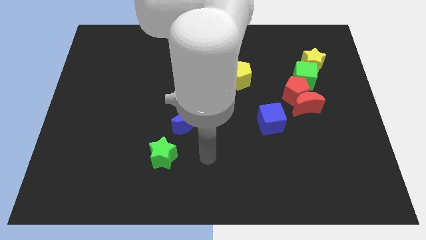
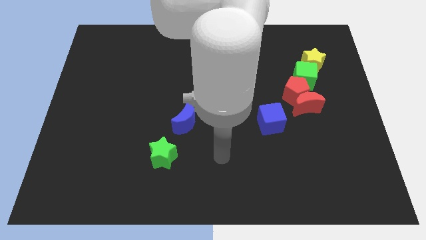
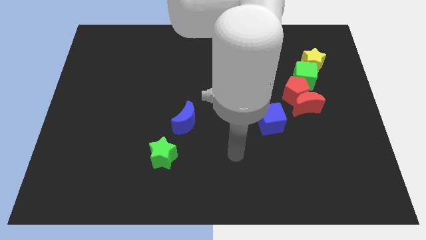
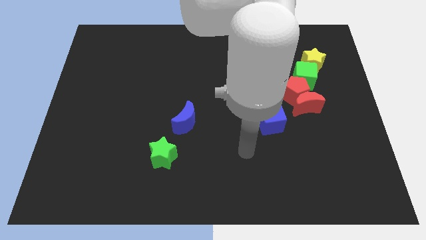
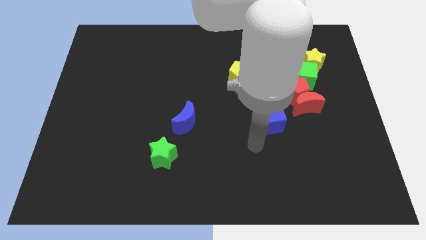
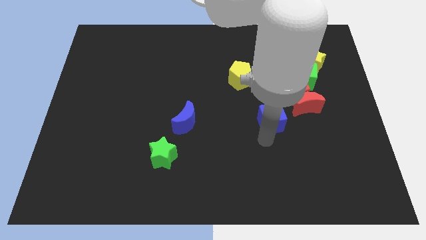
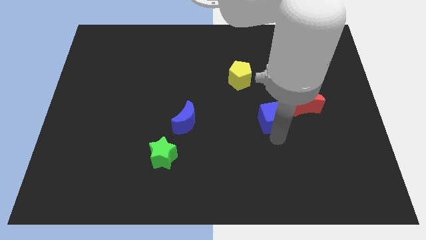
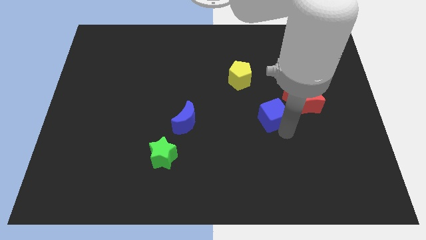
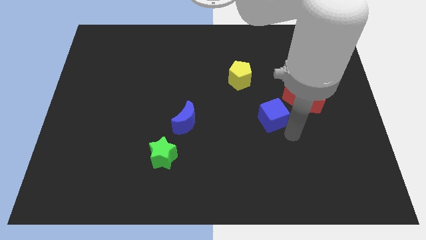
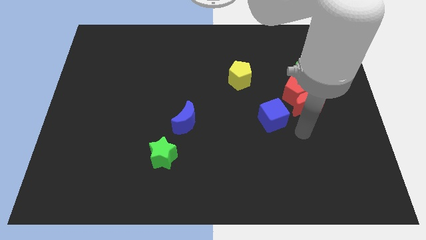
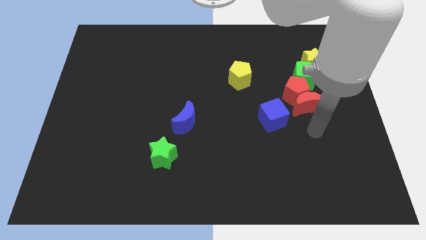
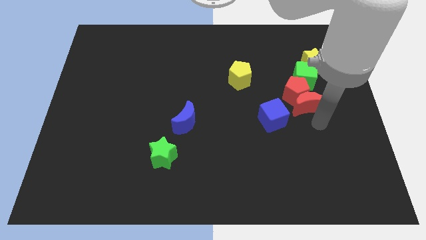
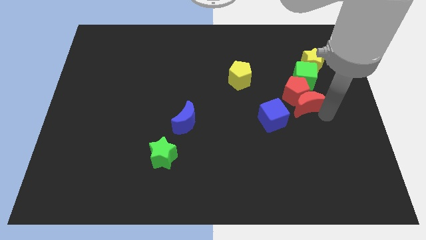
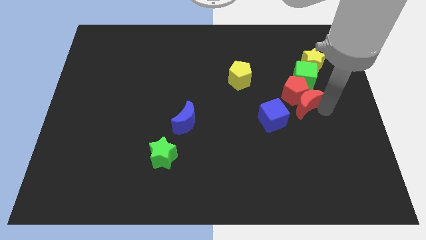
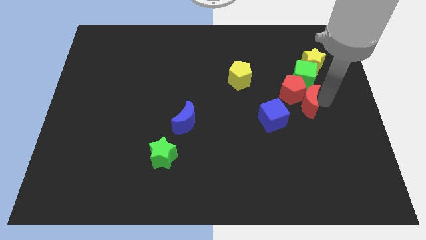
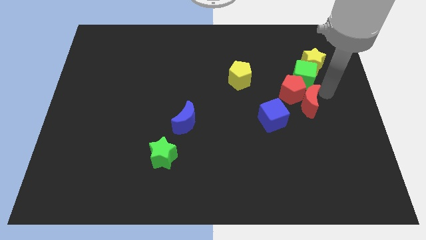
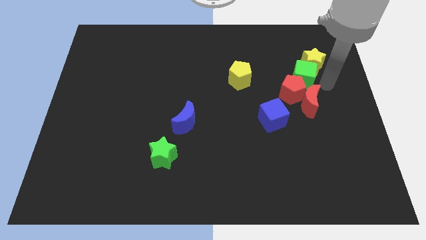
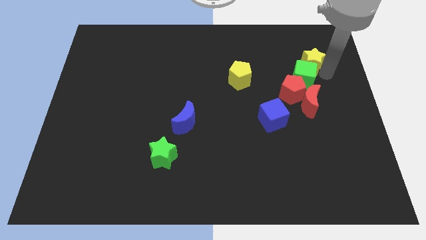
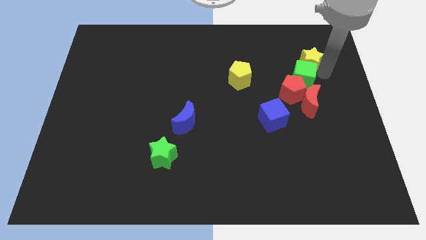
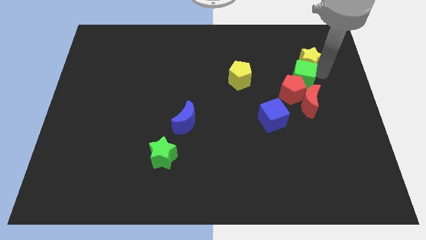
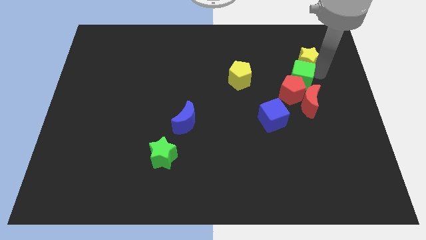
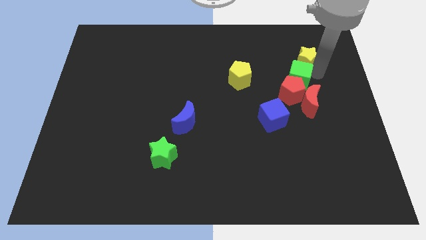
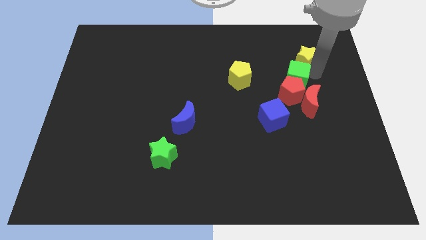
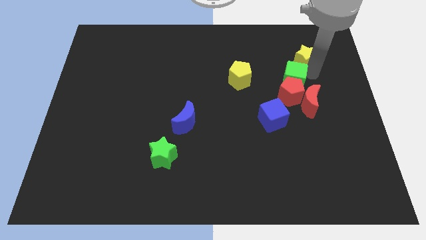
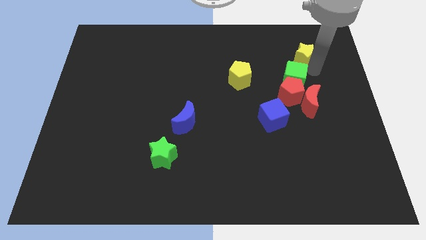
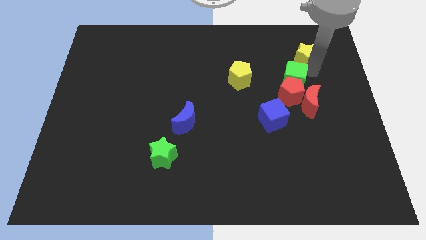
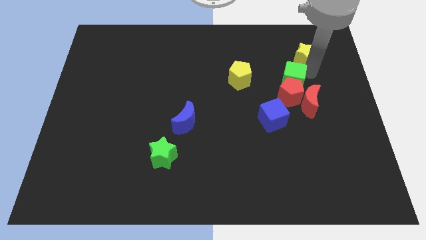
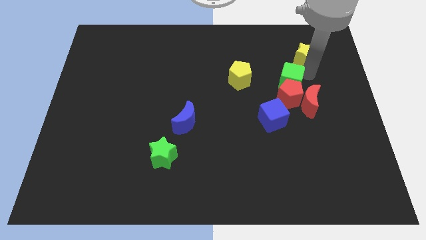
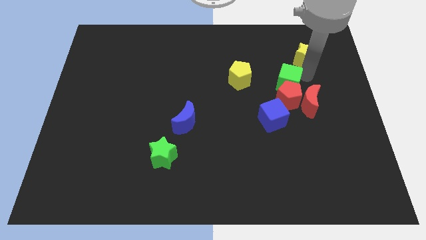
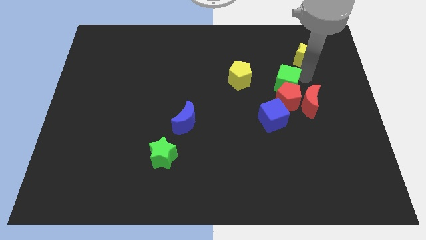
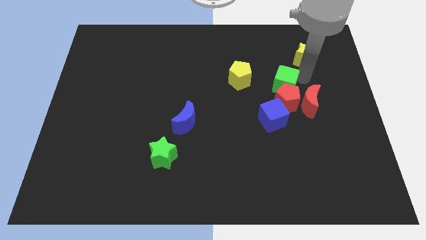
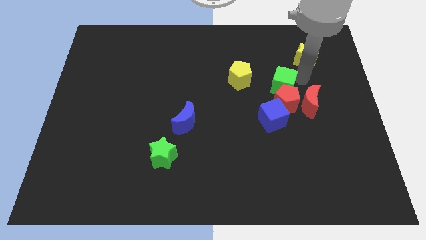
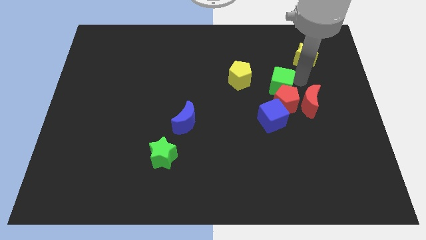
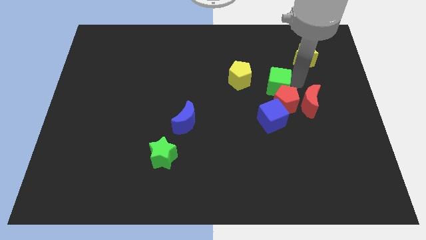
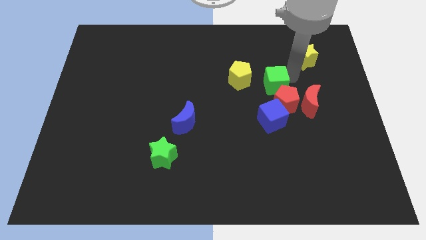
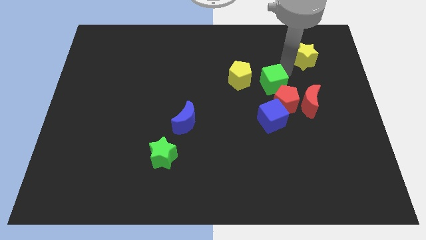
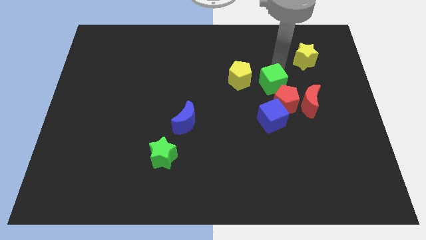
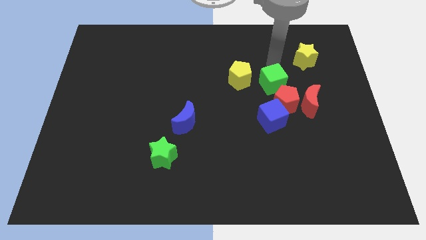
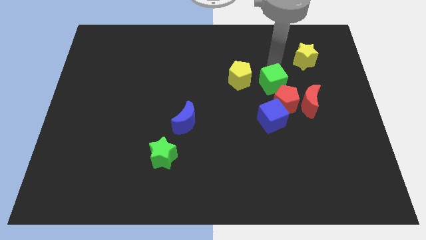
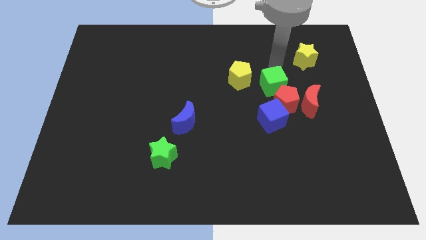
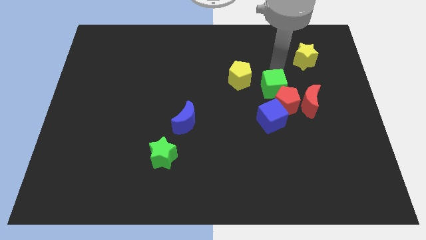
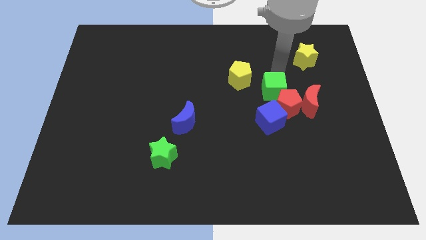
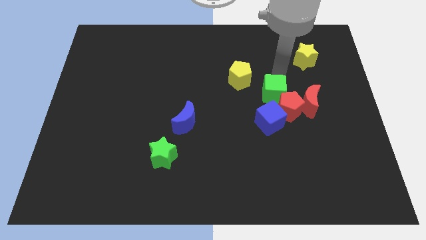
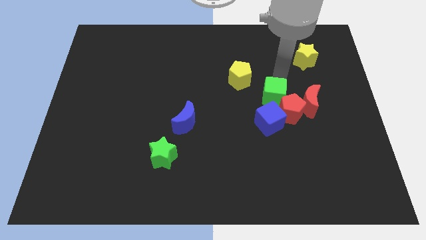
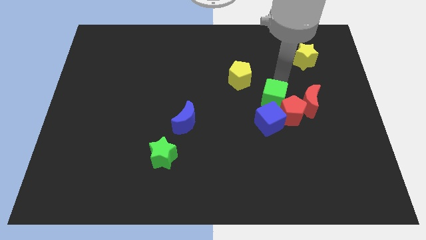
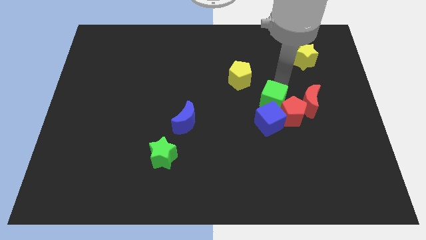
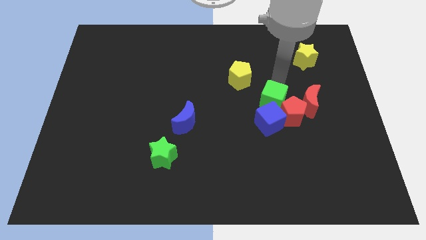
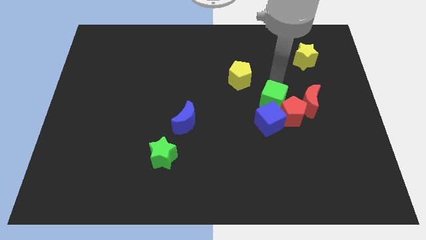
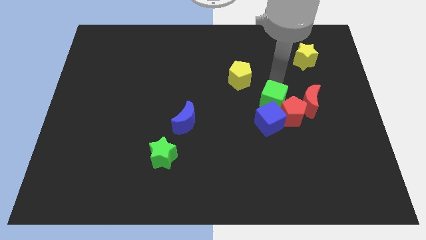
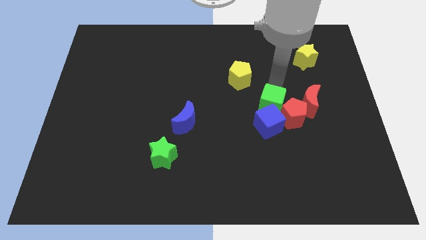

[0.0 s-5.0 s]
push the green cube close to the blue cube

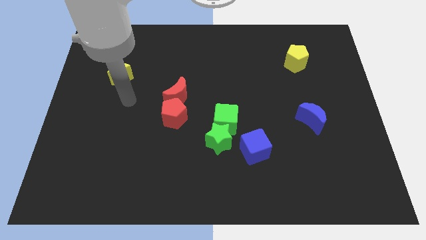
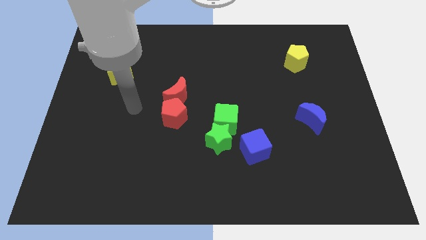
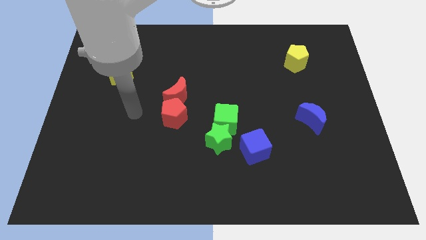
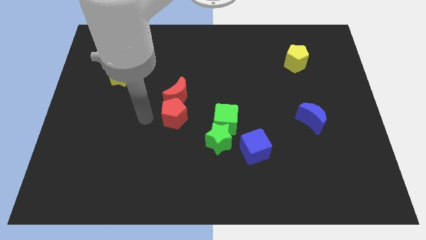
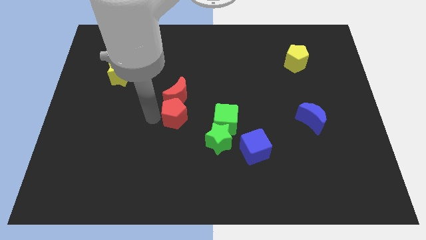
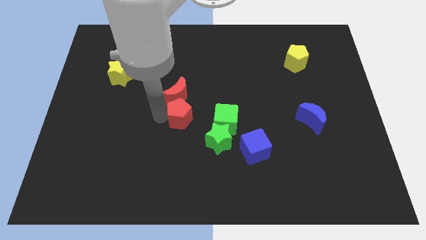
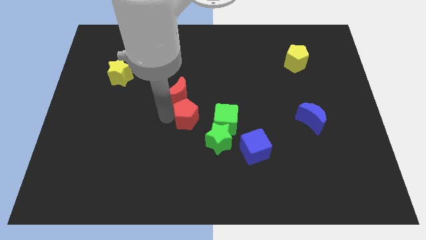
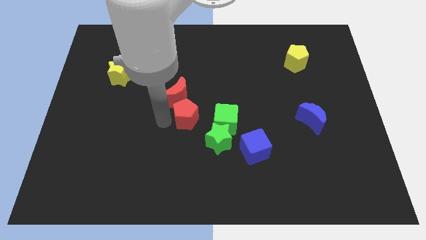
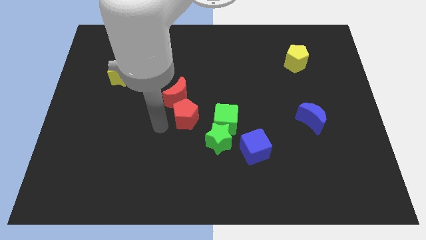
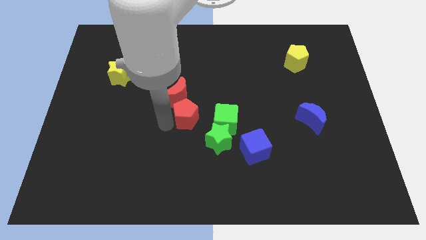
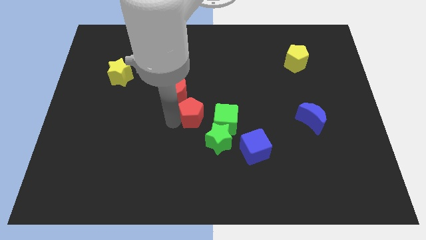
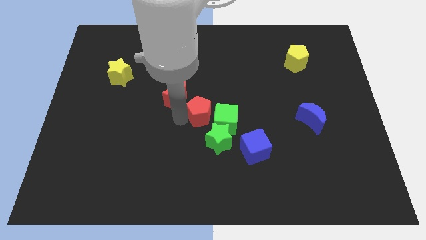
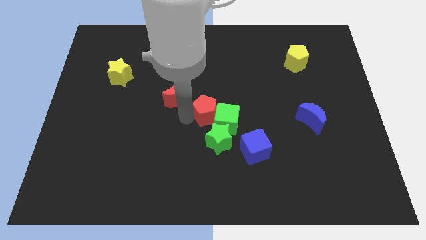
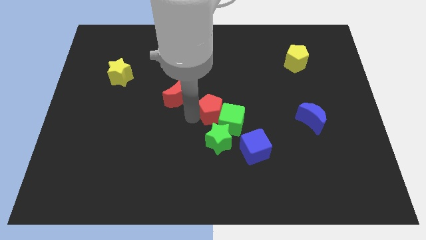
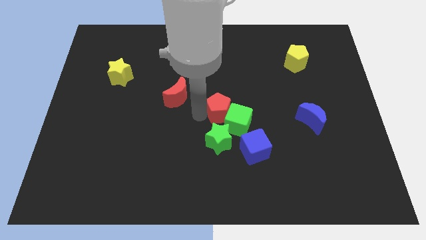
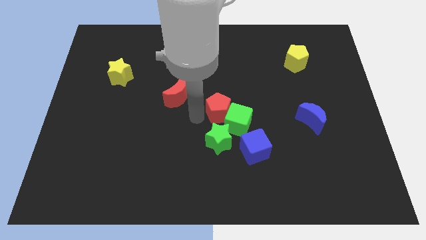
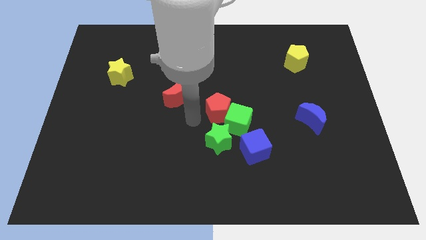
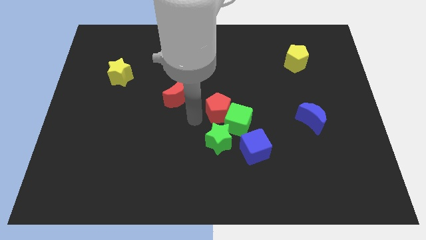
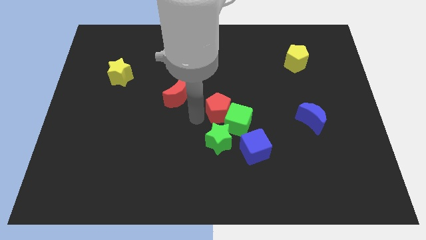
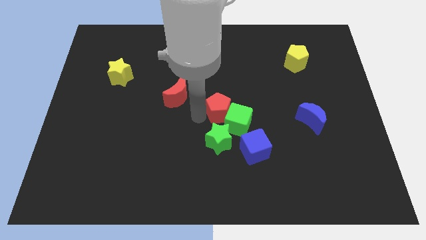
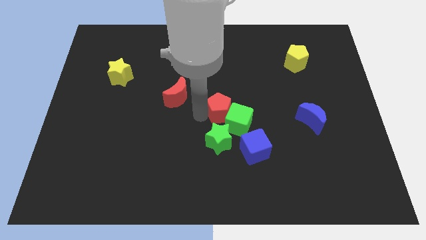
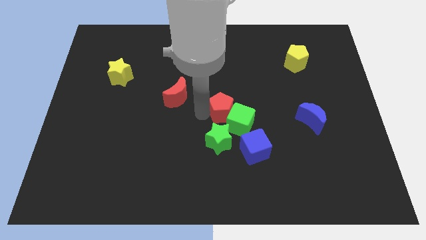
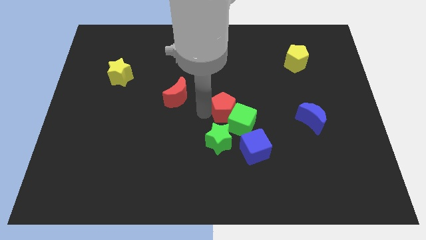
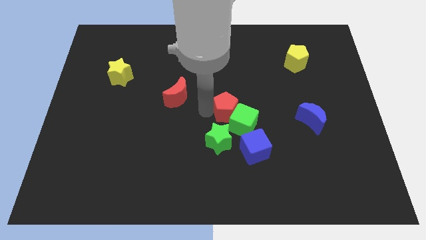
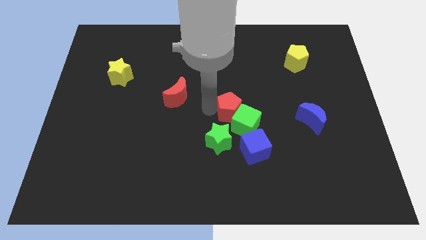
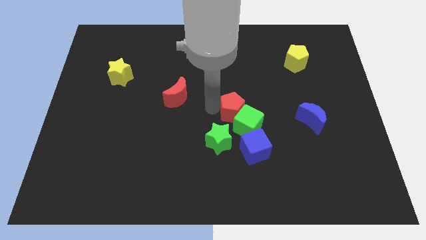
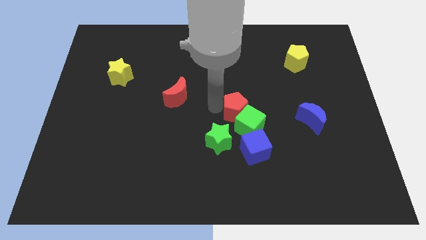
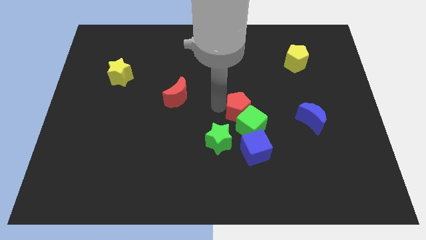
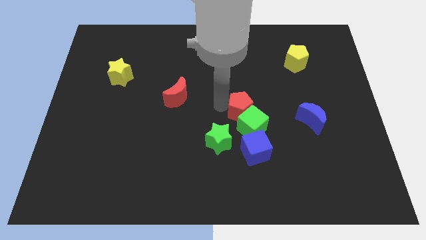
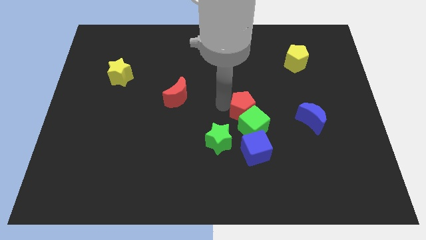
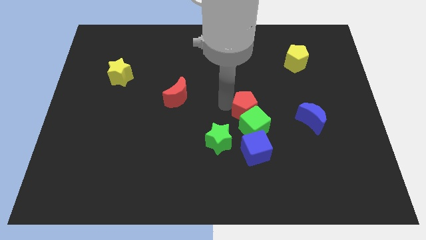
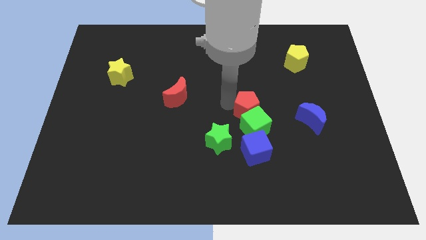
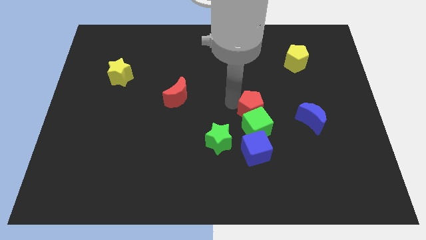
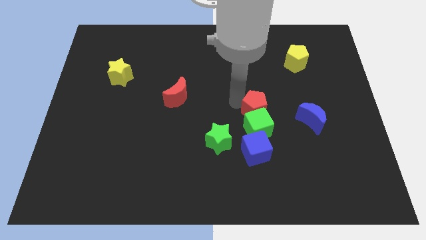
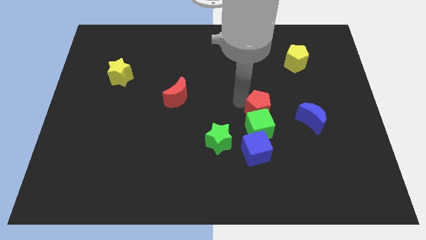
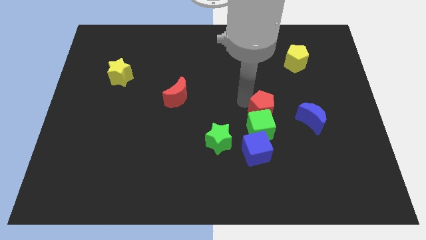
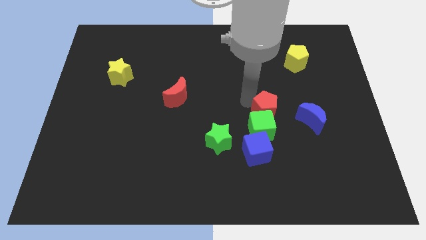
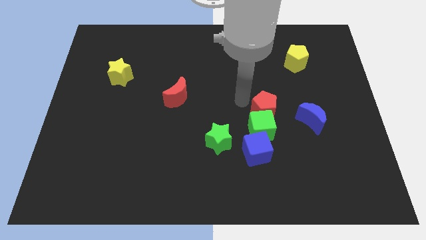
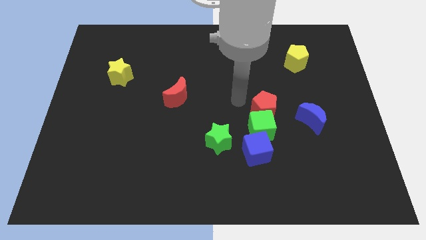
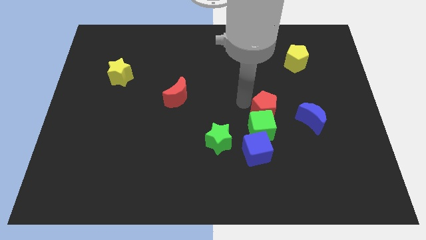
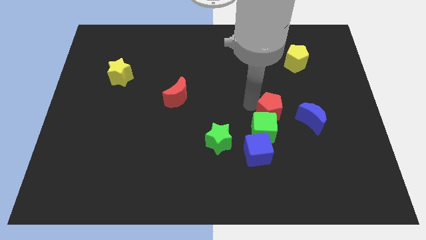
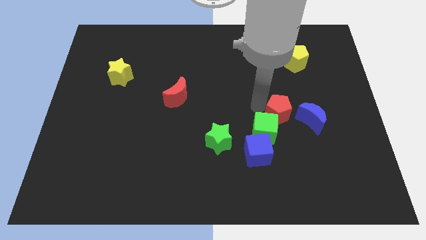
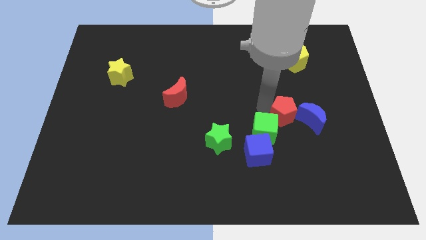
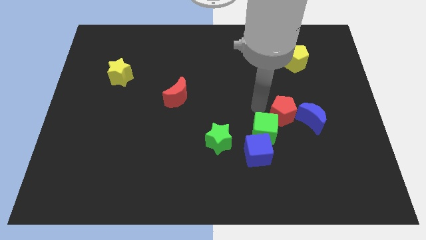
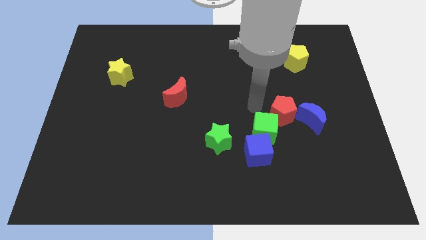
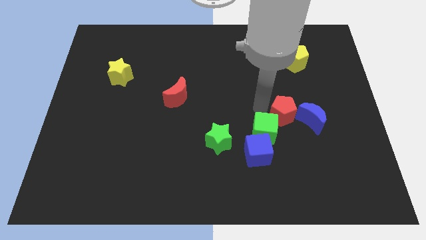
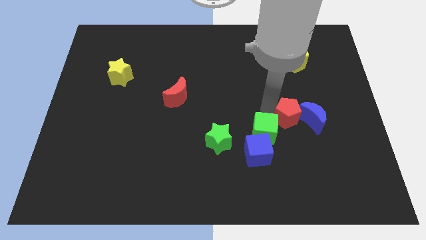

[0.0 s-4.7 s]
push the red pentagon next to the blue moon
